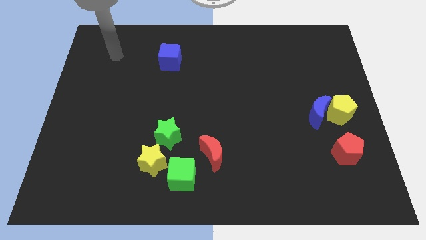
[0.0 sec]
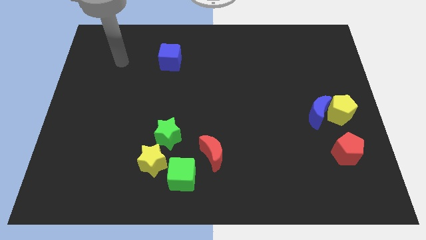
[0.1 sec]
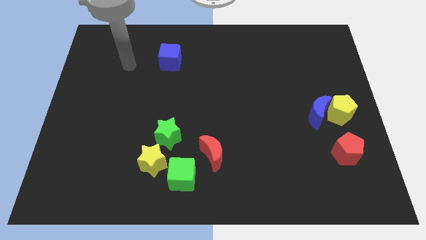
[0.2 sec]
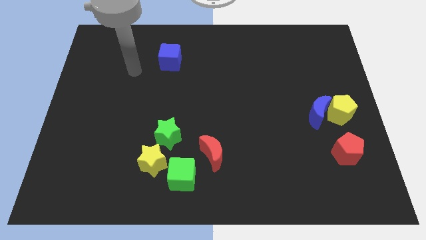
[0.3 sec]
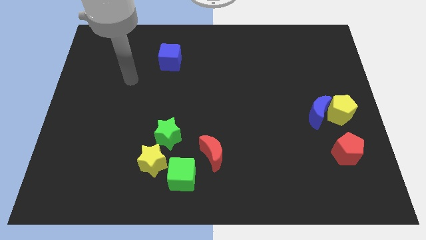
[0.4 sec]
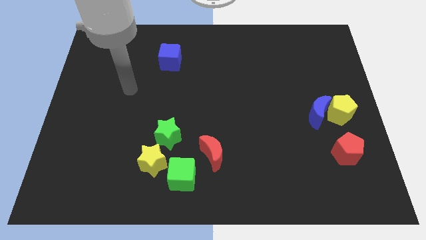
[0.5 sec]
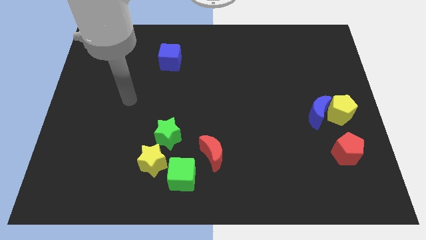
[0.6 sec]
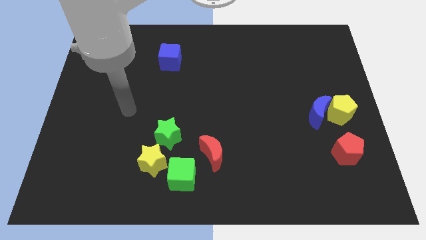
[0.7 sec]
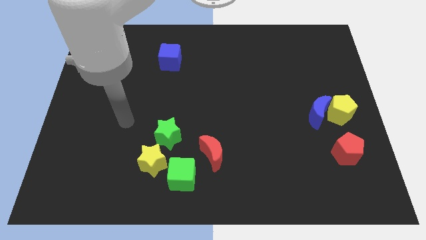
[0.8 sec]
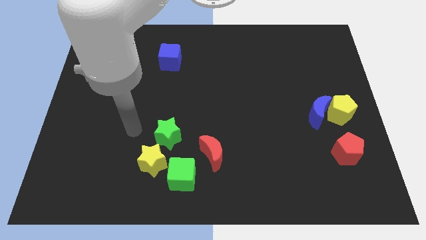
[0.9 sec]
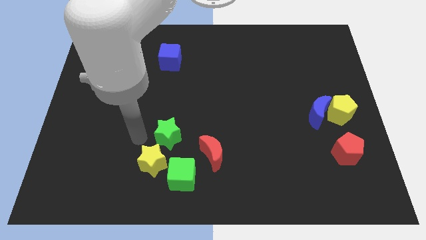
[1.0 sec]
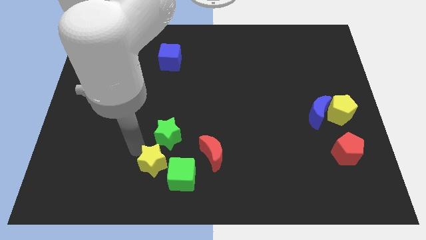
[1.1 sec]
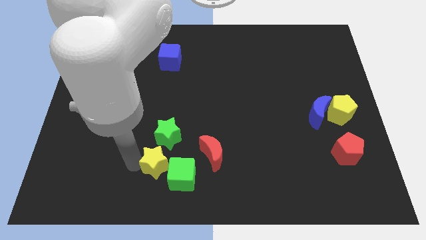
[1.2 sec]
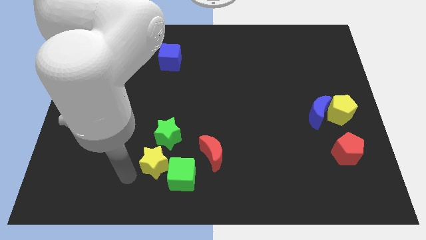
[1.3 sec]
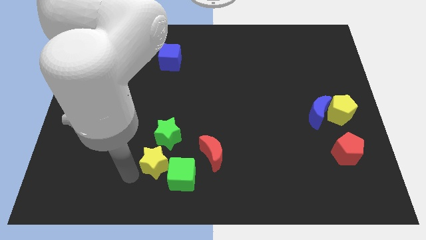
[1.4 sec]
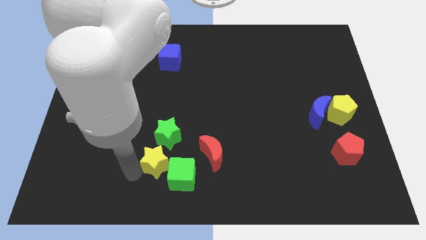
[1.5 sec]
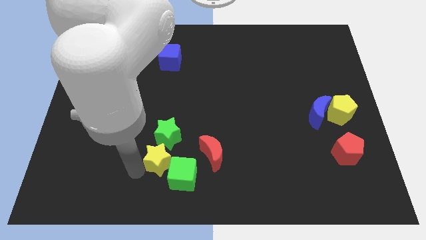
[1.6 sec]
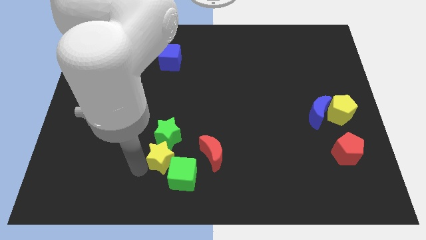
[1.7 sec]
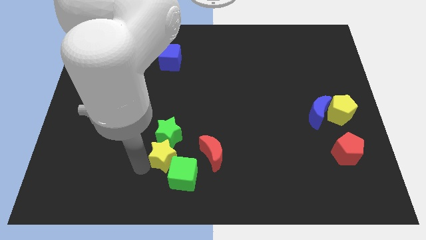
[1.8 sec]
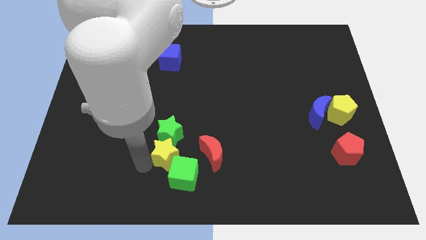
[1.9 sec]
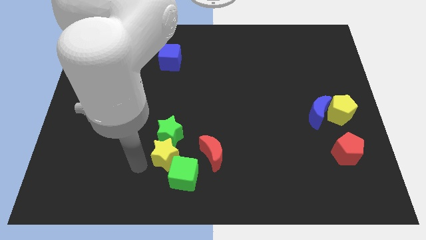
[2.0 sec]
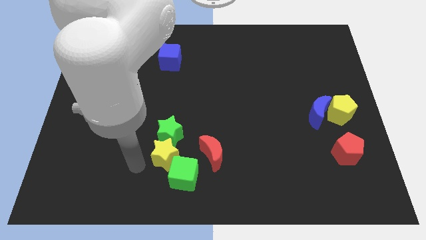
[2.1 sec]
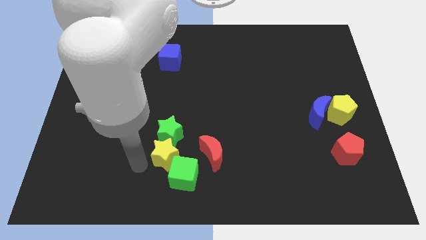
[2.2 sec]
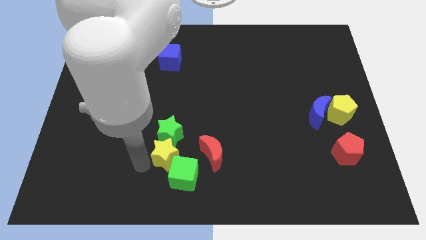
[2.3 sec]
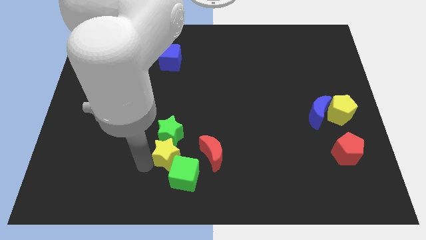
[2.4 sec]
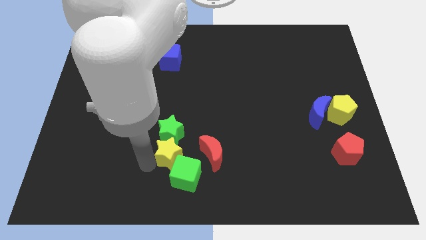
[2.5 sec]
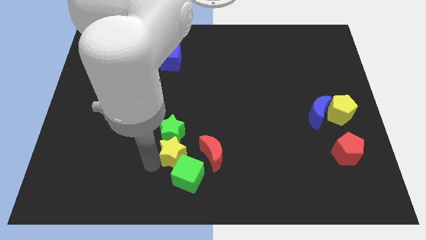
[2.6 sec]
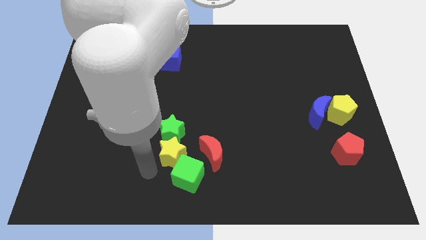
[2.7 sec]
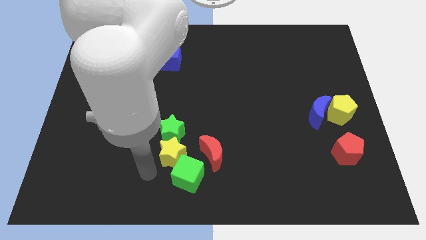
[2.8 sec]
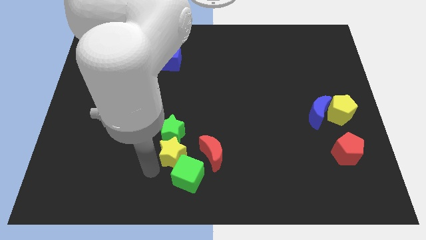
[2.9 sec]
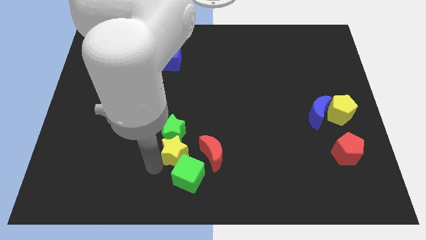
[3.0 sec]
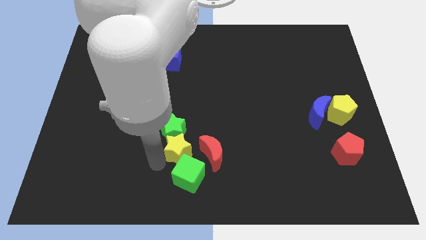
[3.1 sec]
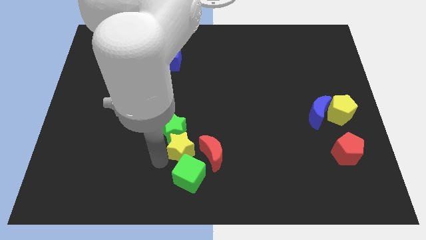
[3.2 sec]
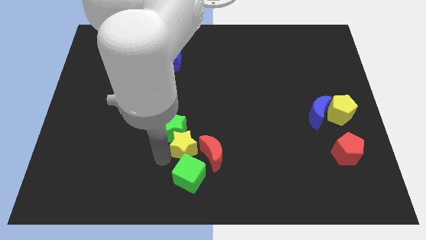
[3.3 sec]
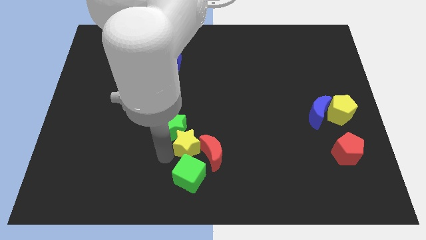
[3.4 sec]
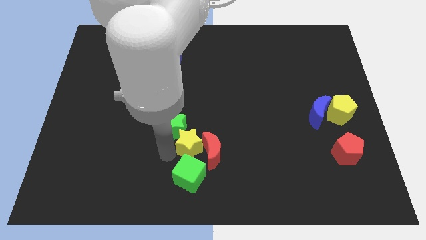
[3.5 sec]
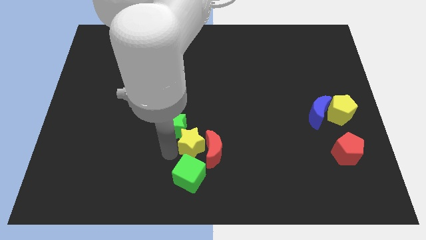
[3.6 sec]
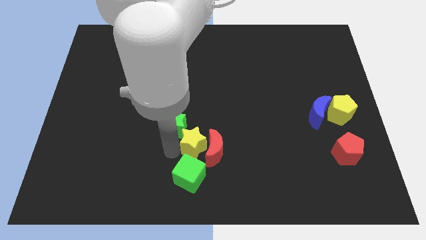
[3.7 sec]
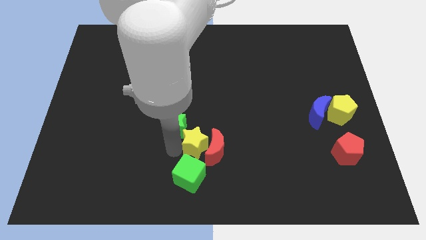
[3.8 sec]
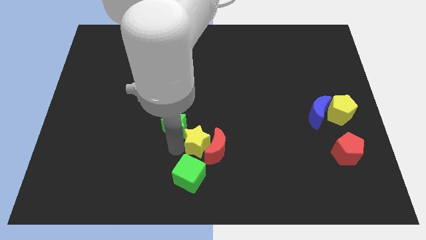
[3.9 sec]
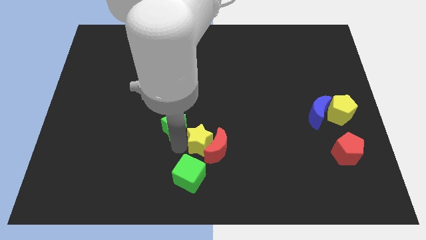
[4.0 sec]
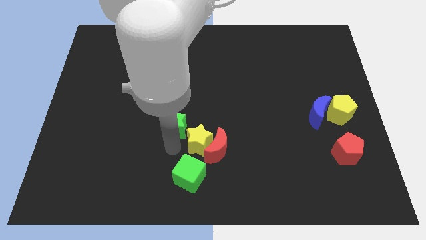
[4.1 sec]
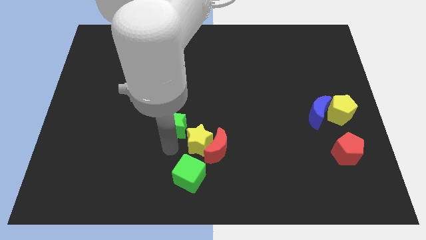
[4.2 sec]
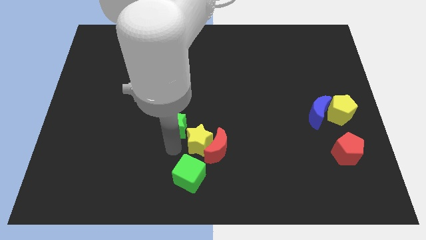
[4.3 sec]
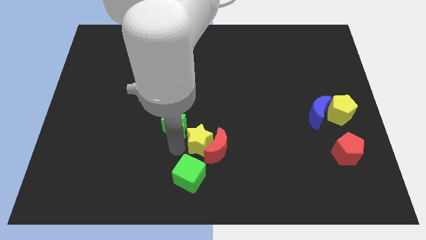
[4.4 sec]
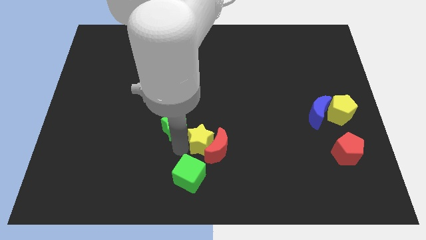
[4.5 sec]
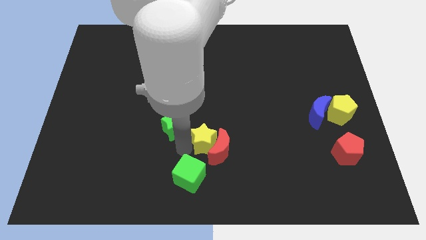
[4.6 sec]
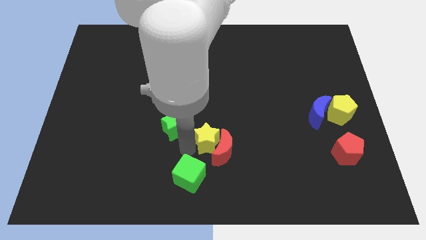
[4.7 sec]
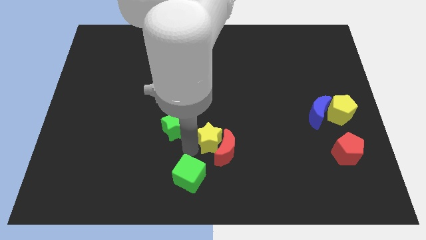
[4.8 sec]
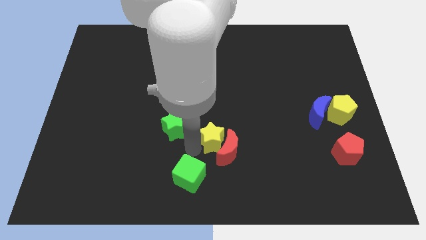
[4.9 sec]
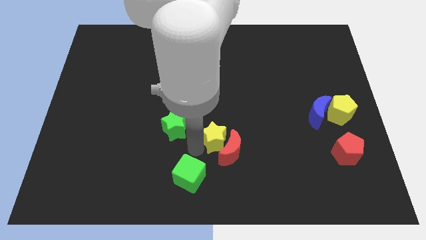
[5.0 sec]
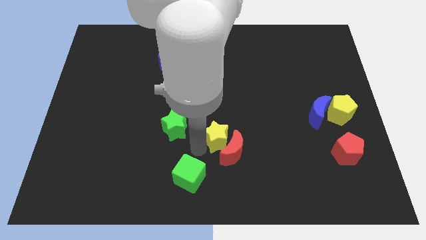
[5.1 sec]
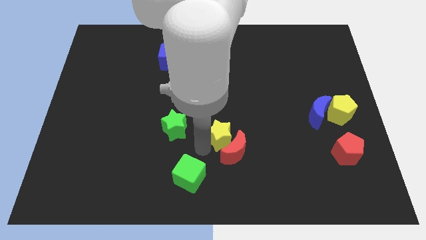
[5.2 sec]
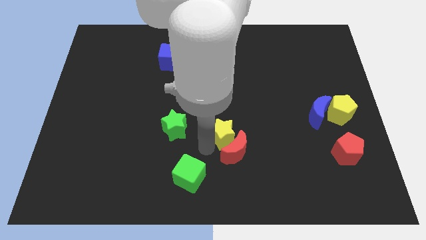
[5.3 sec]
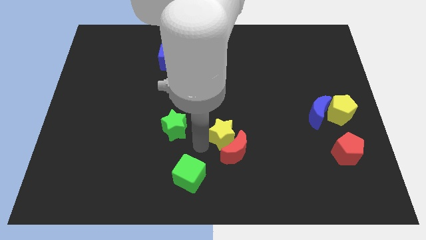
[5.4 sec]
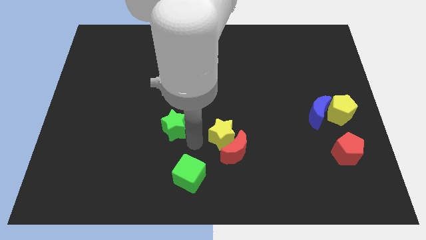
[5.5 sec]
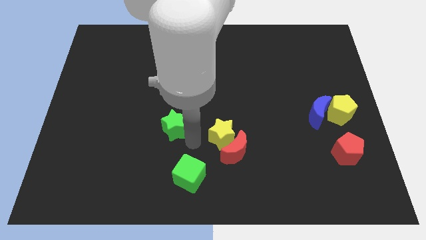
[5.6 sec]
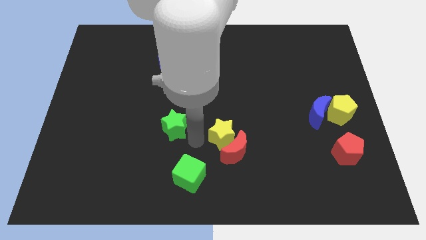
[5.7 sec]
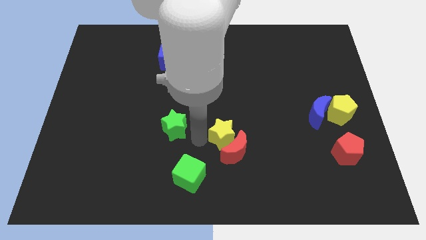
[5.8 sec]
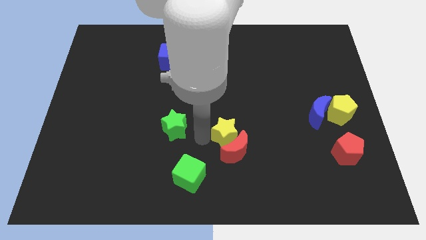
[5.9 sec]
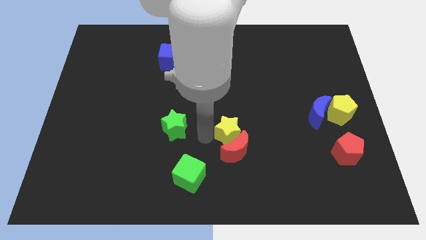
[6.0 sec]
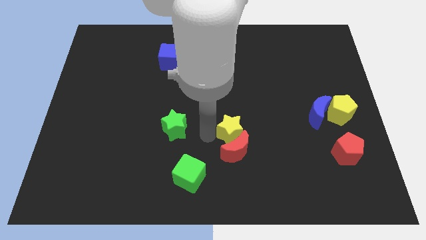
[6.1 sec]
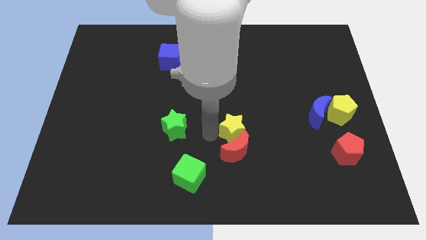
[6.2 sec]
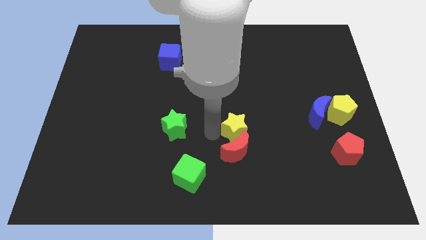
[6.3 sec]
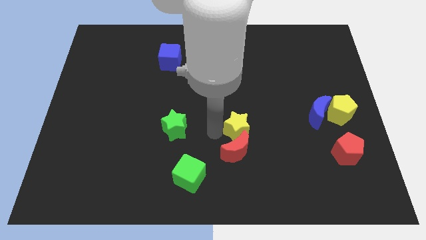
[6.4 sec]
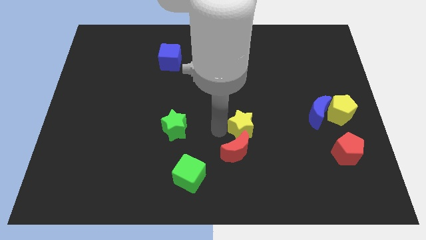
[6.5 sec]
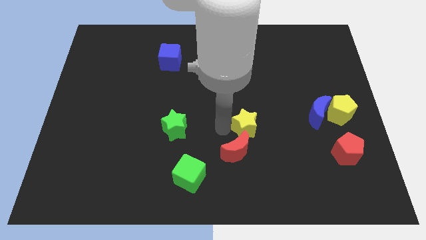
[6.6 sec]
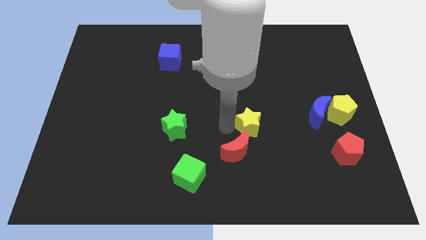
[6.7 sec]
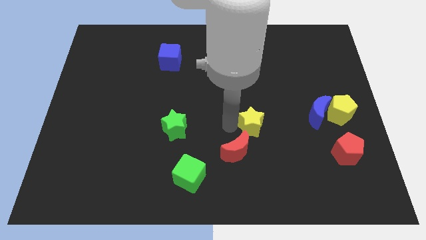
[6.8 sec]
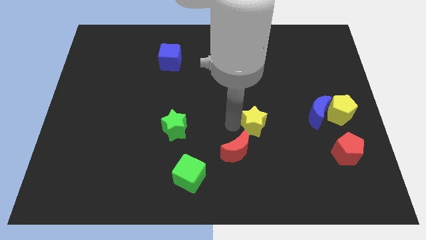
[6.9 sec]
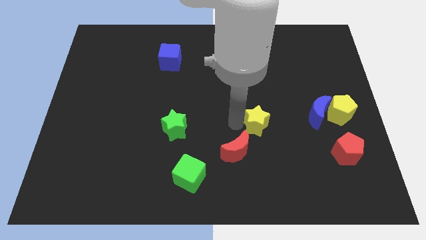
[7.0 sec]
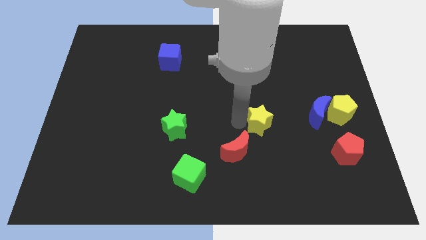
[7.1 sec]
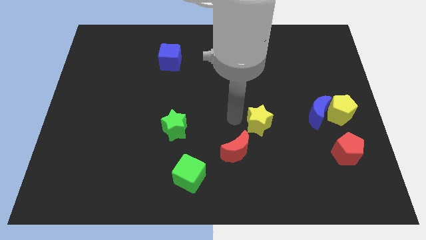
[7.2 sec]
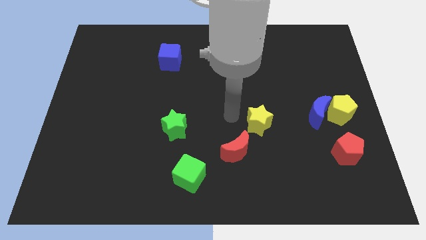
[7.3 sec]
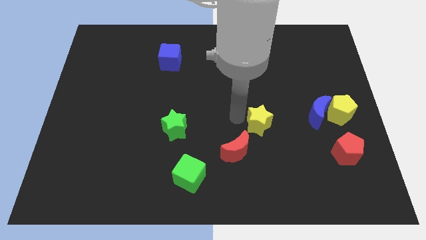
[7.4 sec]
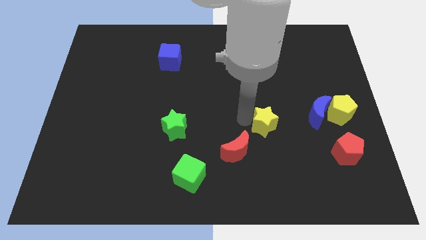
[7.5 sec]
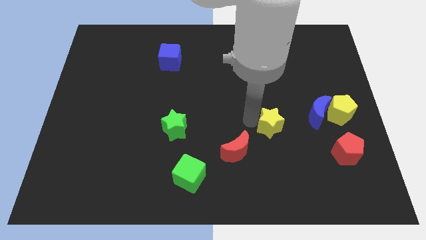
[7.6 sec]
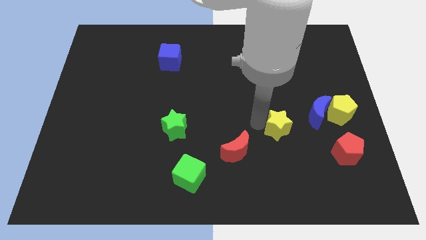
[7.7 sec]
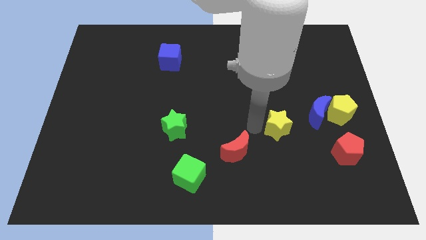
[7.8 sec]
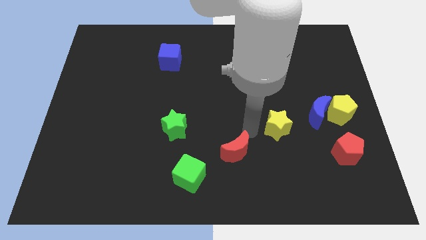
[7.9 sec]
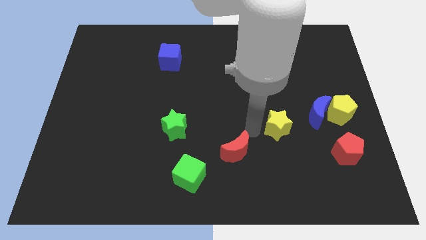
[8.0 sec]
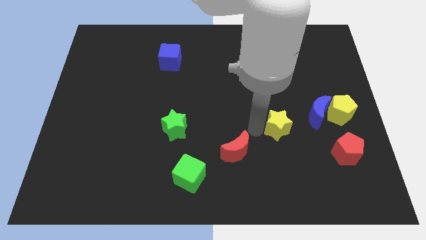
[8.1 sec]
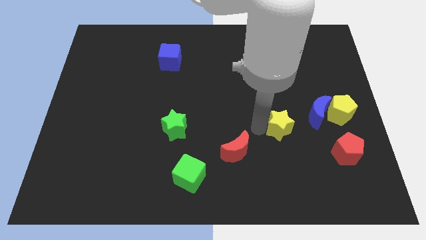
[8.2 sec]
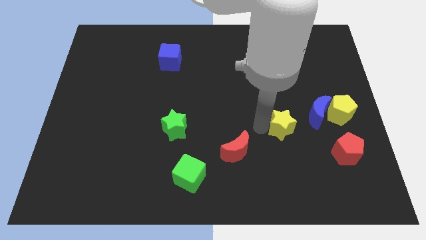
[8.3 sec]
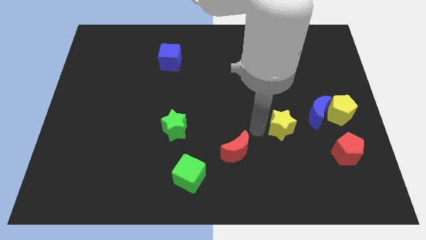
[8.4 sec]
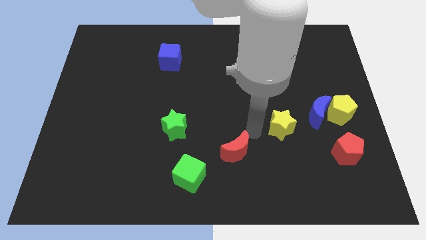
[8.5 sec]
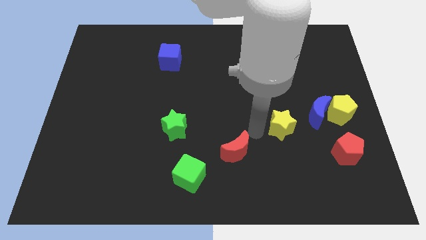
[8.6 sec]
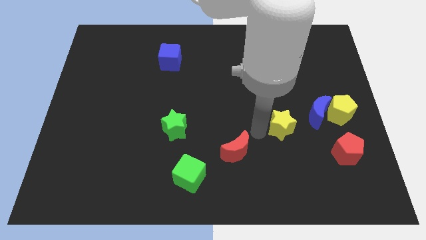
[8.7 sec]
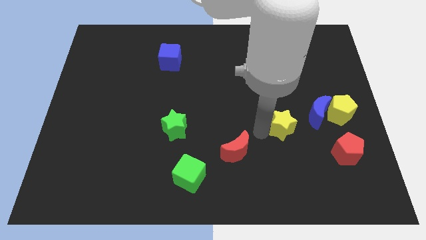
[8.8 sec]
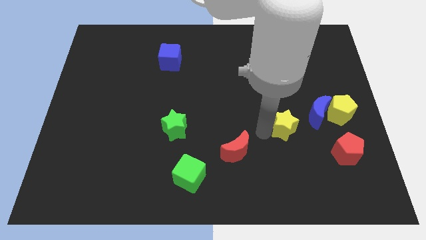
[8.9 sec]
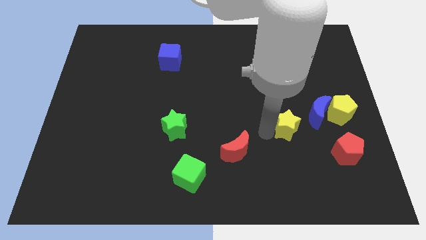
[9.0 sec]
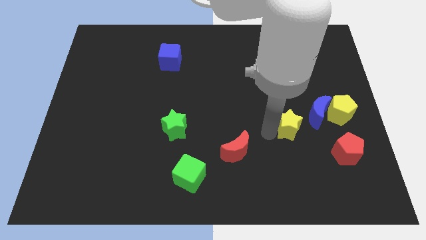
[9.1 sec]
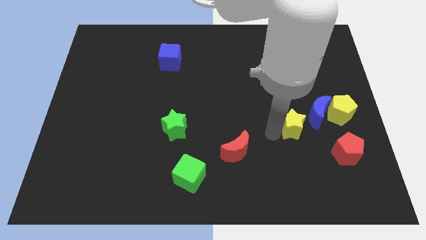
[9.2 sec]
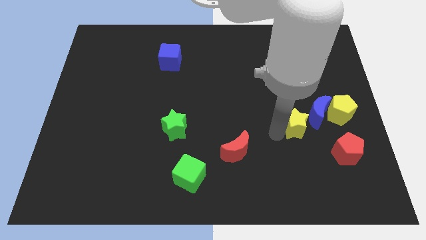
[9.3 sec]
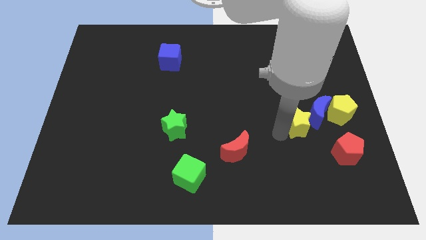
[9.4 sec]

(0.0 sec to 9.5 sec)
slide the yellow star next to the blue moon
